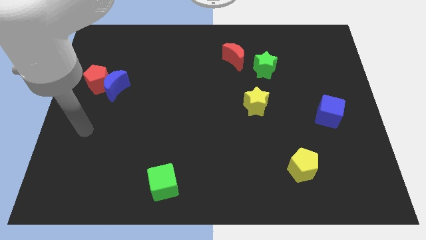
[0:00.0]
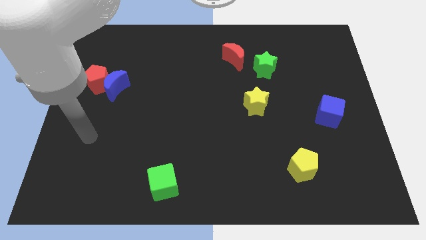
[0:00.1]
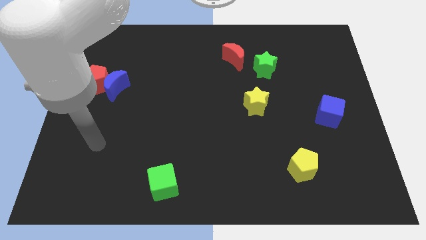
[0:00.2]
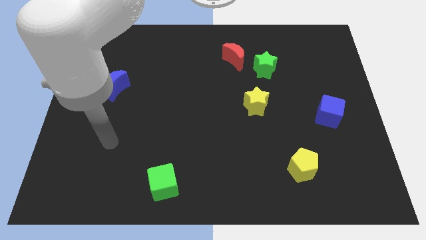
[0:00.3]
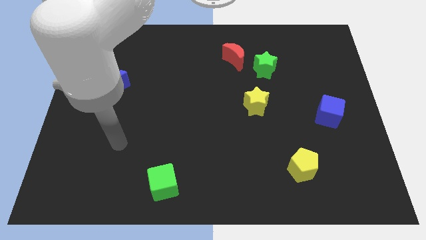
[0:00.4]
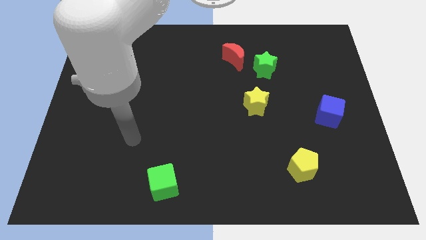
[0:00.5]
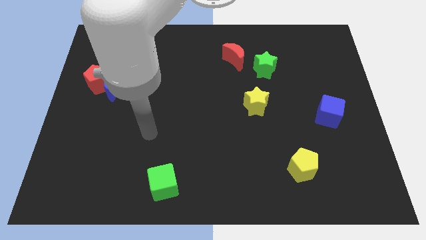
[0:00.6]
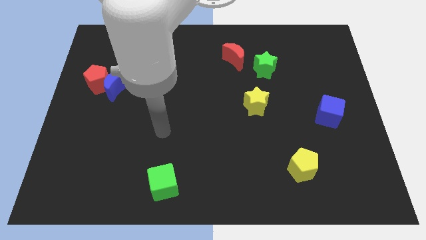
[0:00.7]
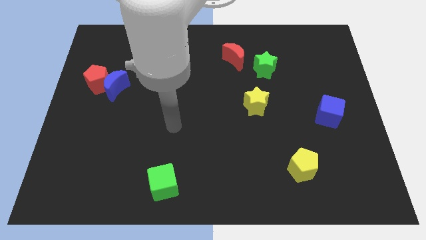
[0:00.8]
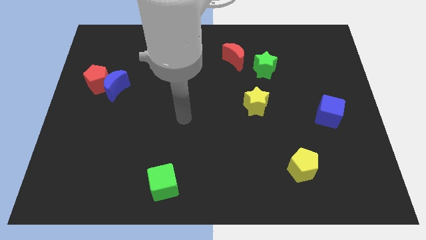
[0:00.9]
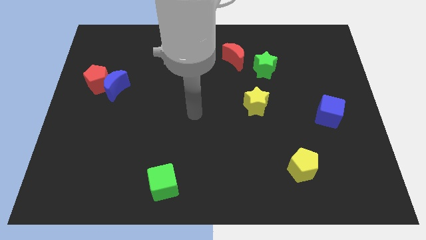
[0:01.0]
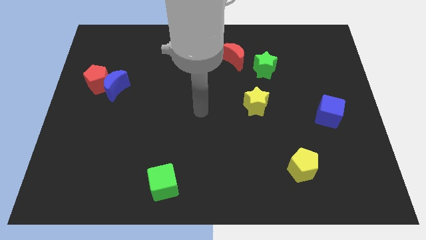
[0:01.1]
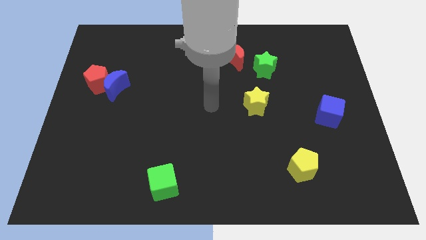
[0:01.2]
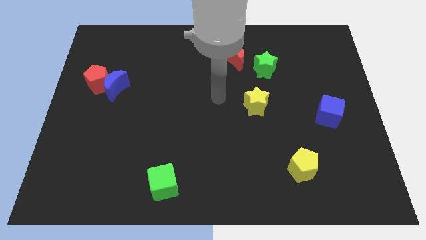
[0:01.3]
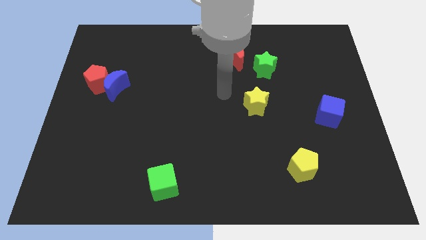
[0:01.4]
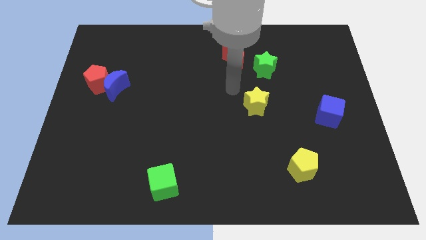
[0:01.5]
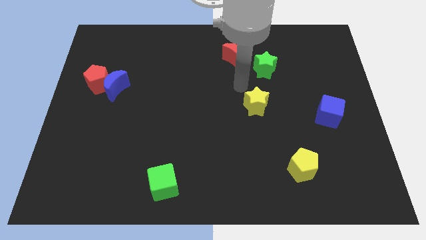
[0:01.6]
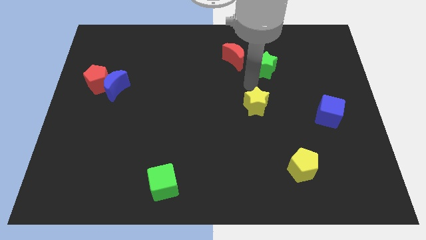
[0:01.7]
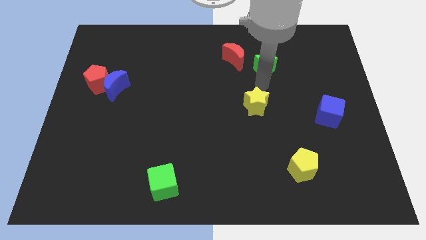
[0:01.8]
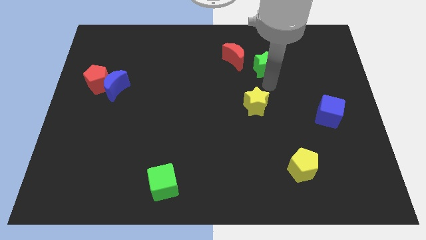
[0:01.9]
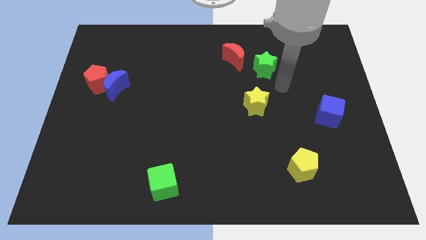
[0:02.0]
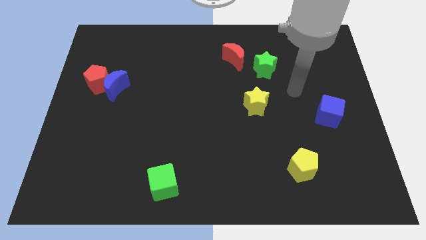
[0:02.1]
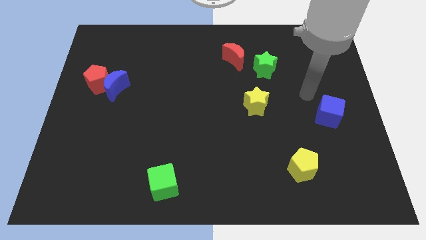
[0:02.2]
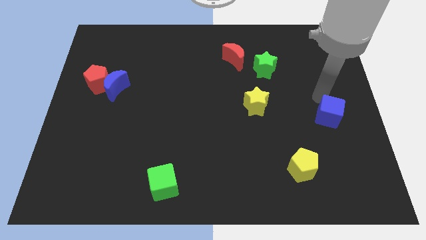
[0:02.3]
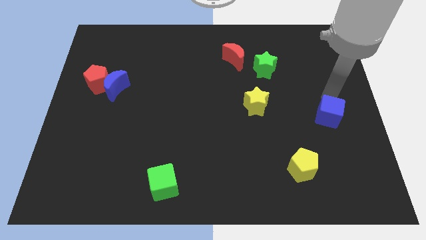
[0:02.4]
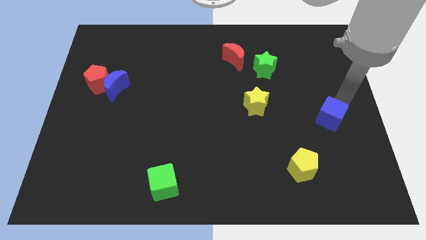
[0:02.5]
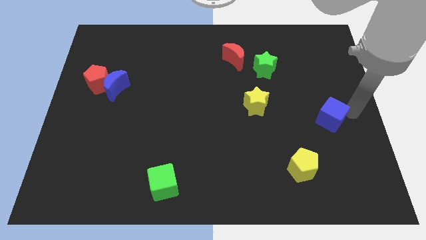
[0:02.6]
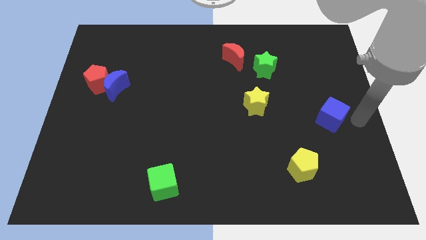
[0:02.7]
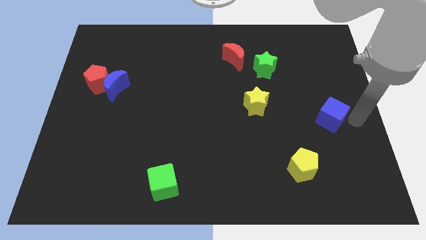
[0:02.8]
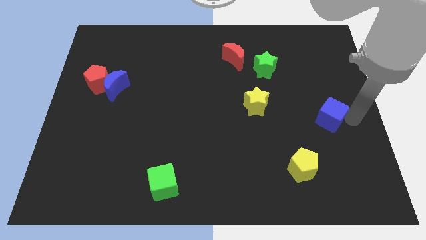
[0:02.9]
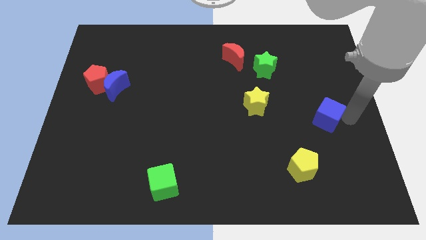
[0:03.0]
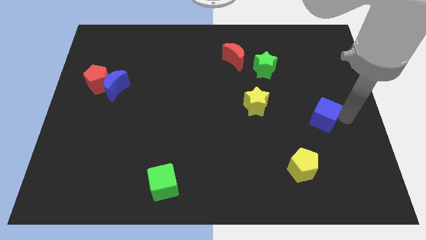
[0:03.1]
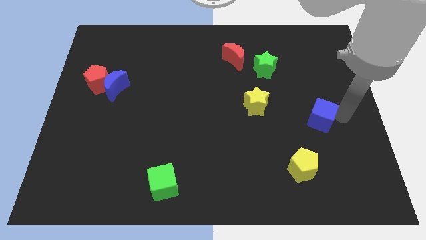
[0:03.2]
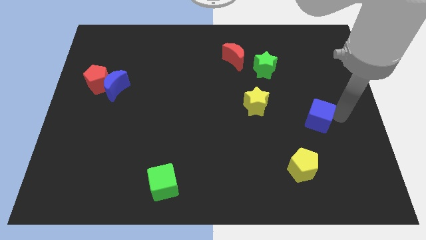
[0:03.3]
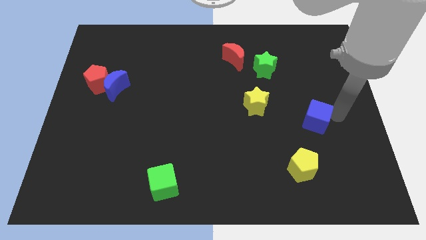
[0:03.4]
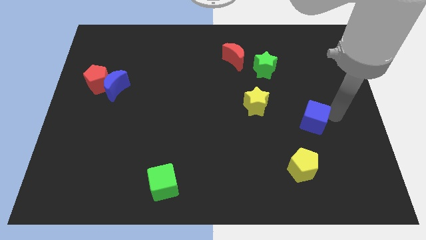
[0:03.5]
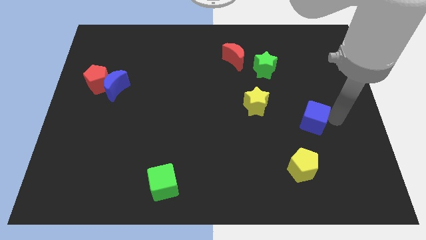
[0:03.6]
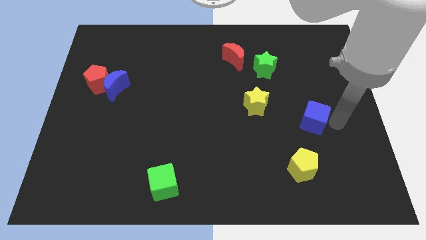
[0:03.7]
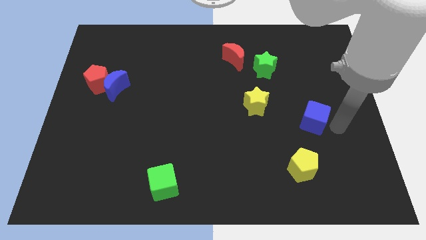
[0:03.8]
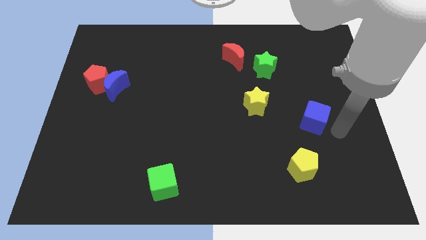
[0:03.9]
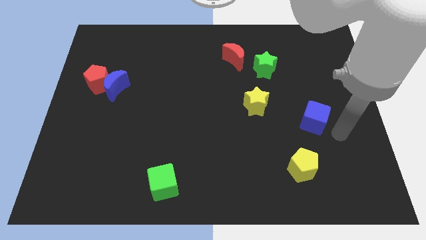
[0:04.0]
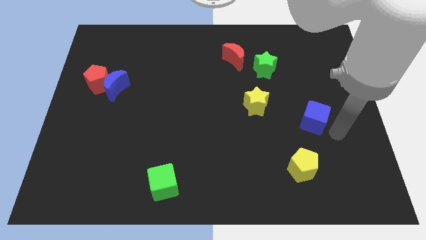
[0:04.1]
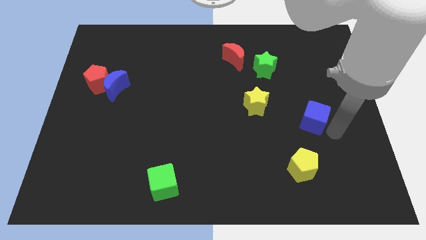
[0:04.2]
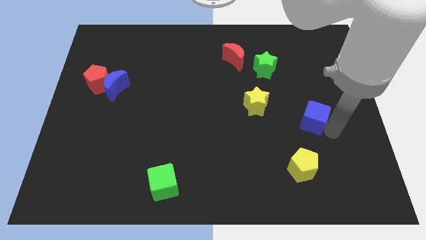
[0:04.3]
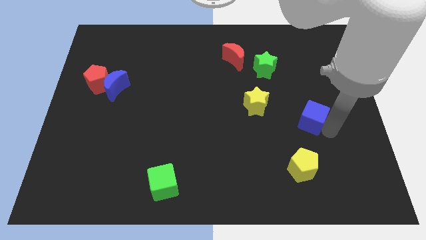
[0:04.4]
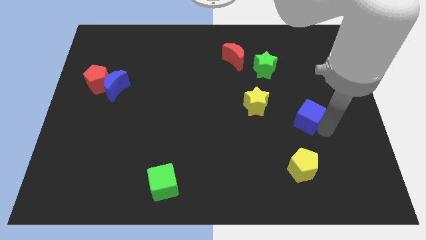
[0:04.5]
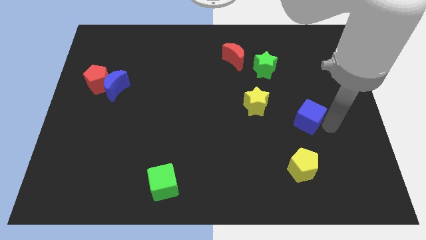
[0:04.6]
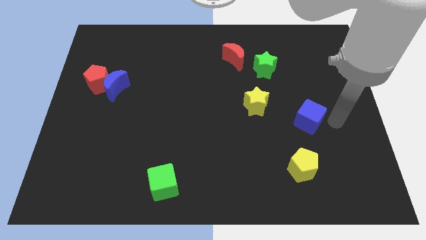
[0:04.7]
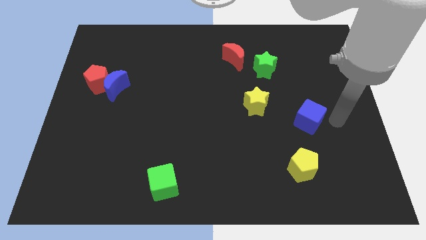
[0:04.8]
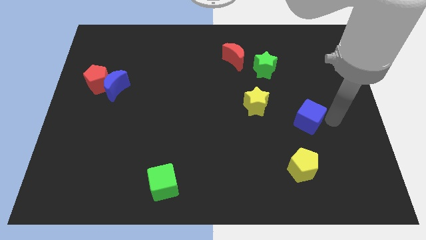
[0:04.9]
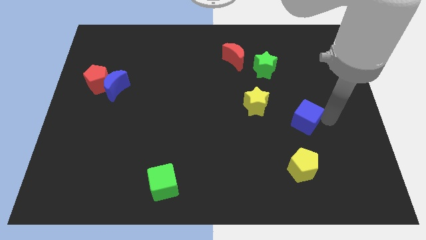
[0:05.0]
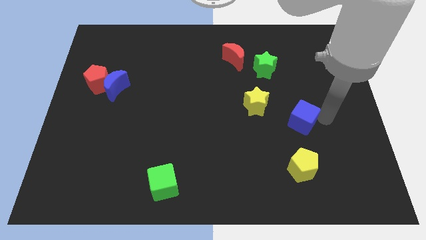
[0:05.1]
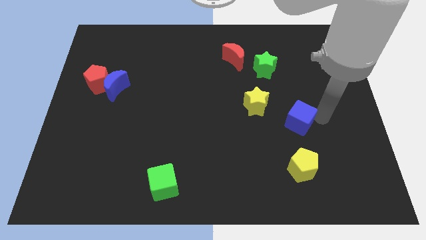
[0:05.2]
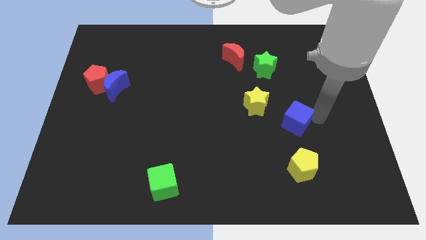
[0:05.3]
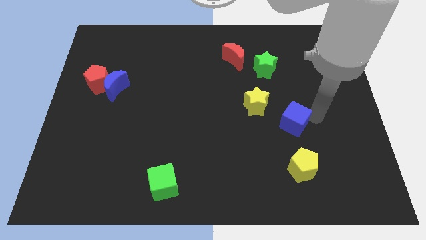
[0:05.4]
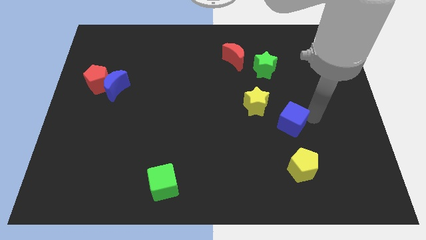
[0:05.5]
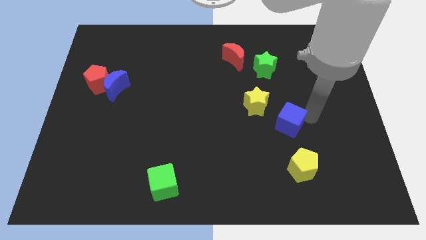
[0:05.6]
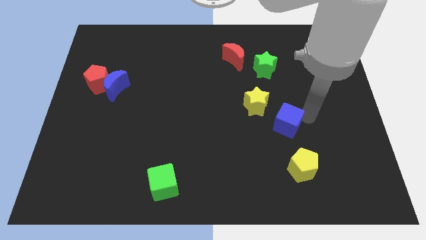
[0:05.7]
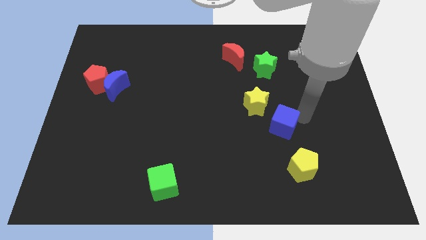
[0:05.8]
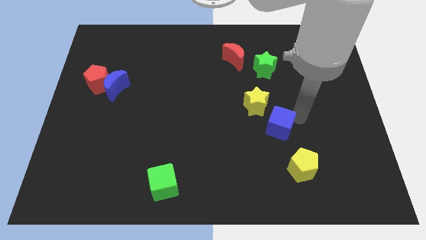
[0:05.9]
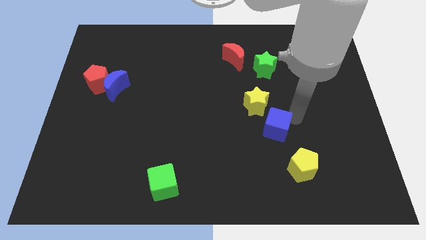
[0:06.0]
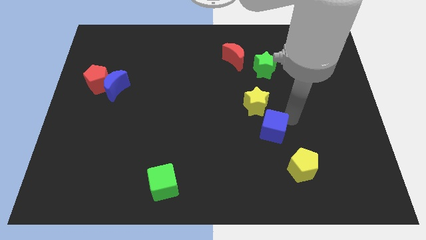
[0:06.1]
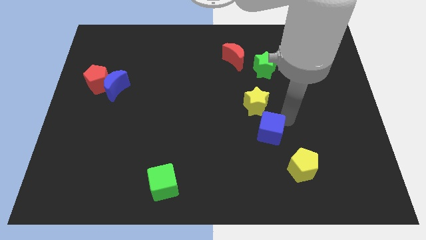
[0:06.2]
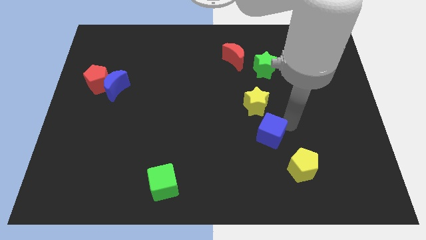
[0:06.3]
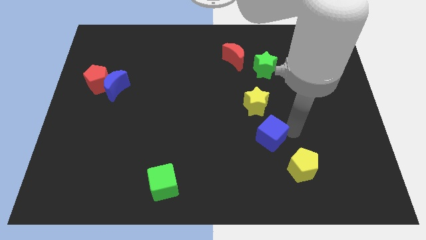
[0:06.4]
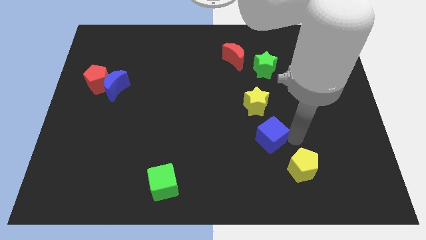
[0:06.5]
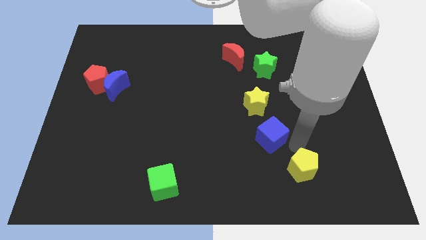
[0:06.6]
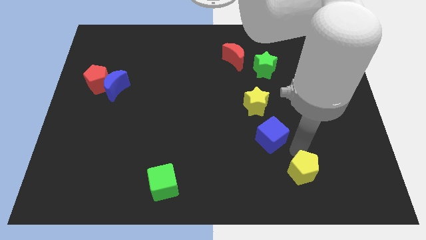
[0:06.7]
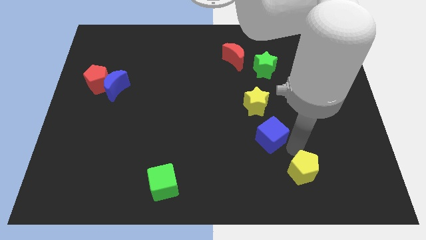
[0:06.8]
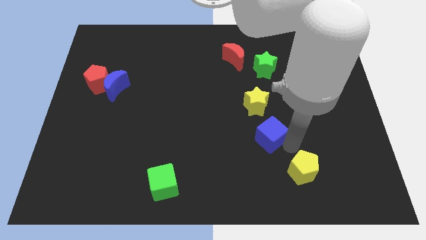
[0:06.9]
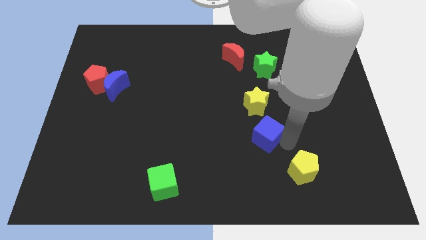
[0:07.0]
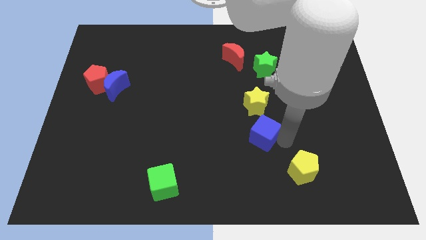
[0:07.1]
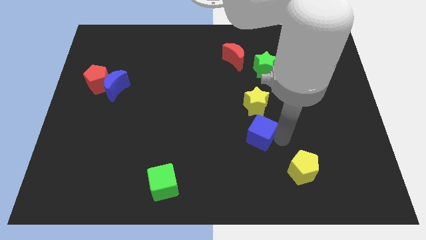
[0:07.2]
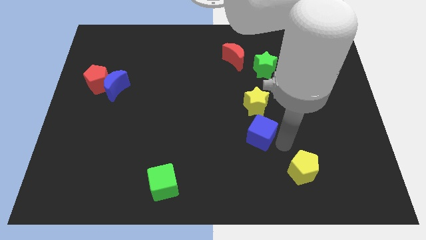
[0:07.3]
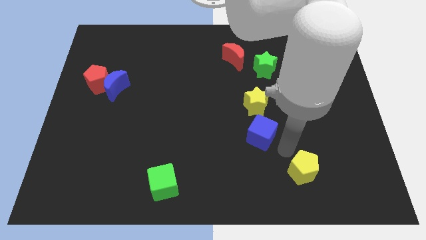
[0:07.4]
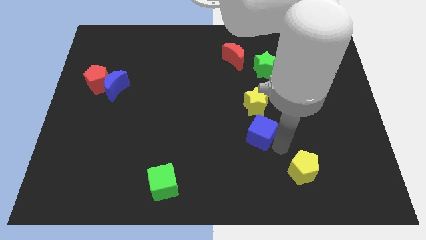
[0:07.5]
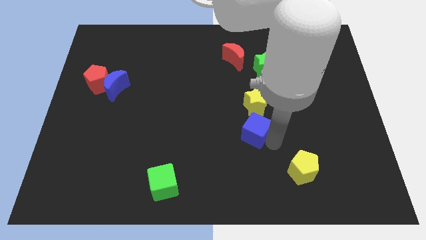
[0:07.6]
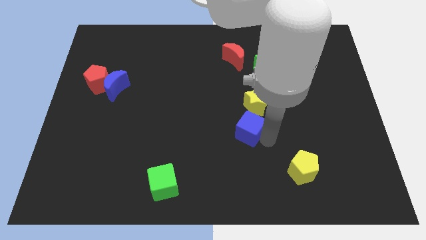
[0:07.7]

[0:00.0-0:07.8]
put the blue cube to the middle of the board
